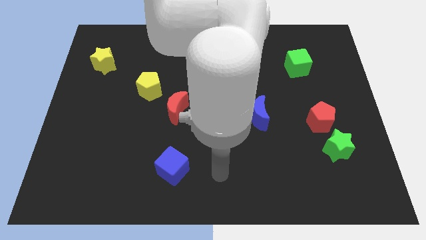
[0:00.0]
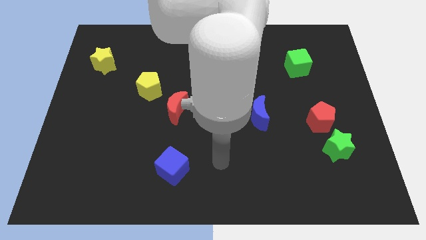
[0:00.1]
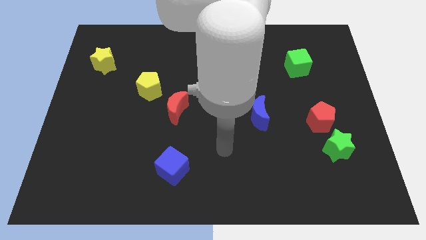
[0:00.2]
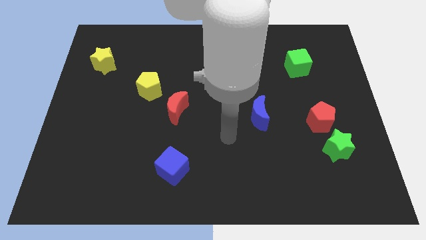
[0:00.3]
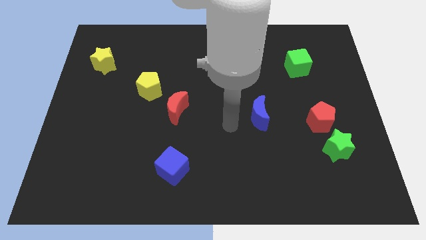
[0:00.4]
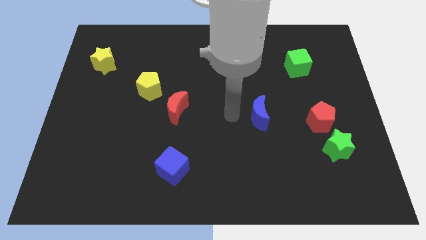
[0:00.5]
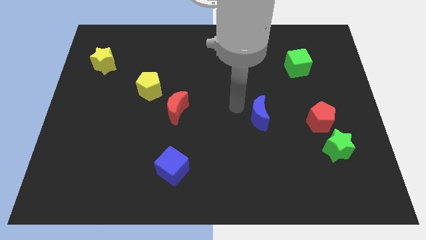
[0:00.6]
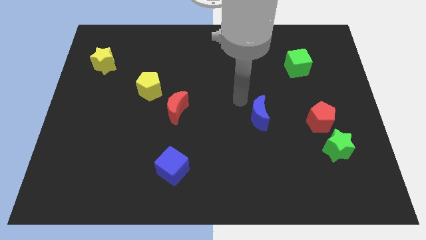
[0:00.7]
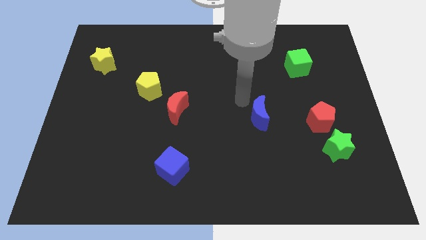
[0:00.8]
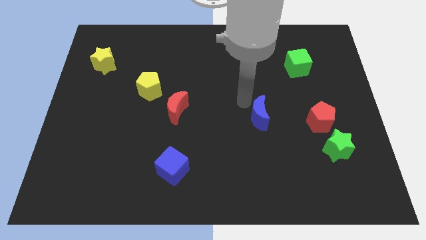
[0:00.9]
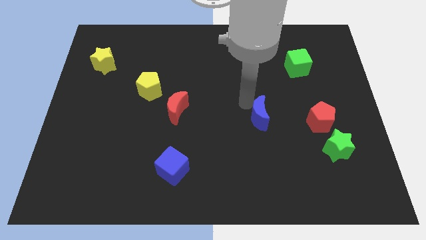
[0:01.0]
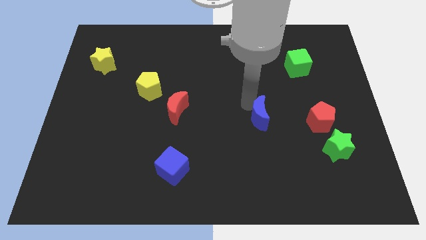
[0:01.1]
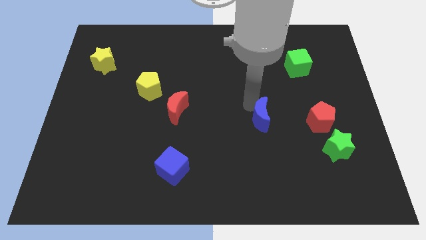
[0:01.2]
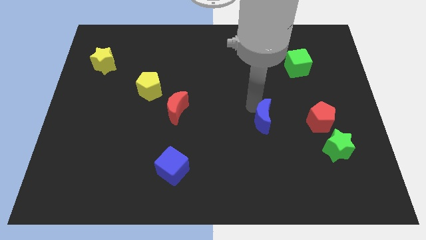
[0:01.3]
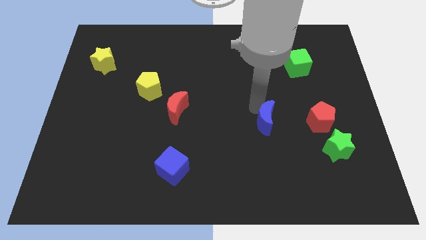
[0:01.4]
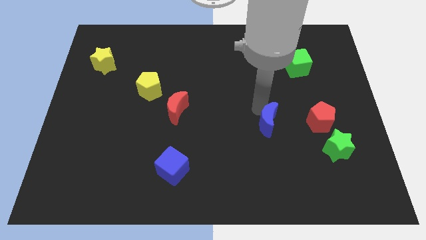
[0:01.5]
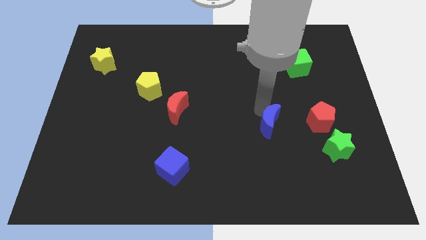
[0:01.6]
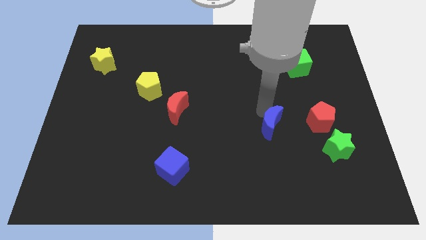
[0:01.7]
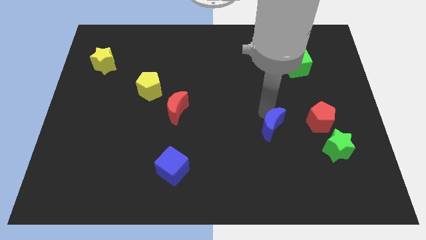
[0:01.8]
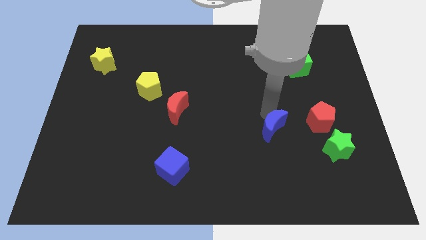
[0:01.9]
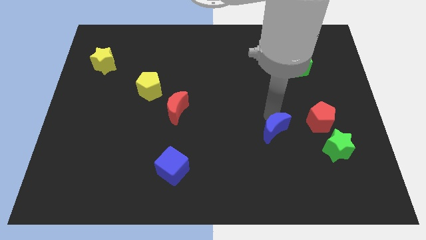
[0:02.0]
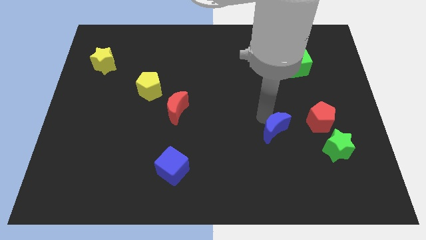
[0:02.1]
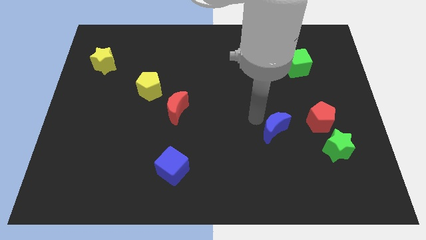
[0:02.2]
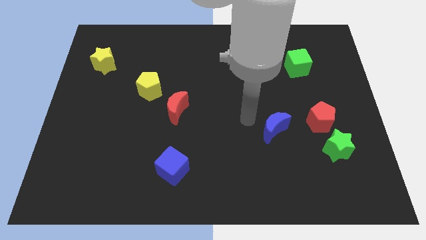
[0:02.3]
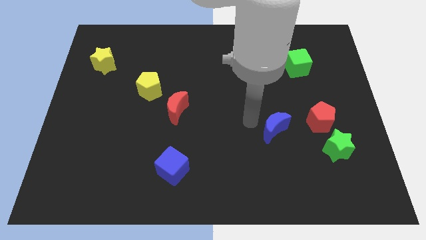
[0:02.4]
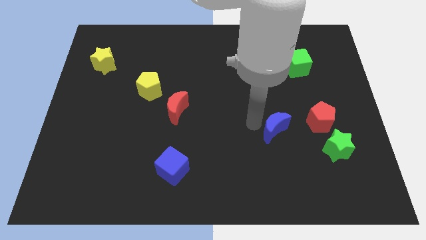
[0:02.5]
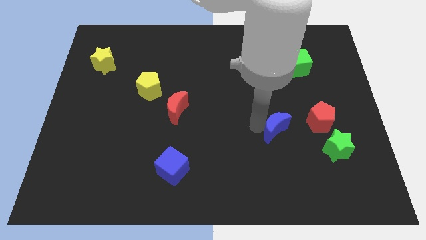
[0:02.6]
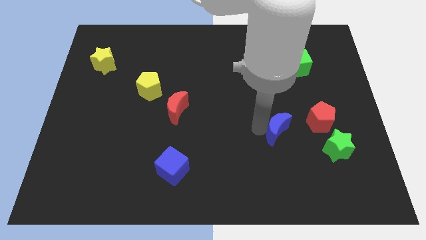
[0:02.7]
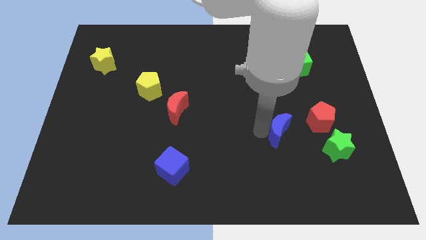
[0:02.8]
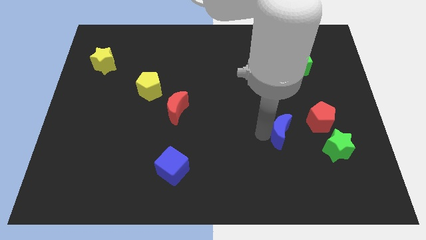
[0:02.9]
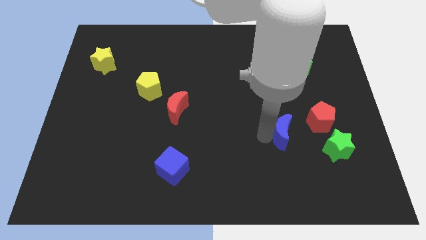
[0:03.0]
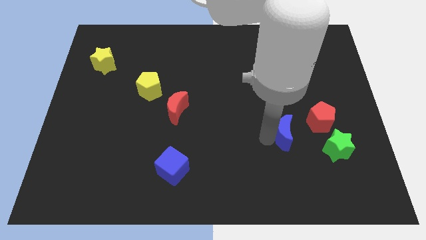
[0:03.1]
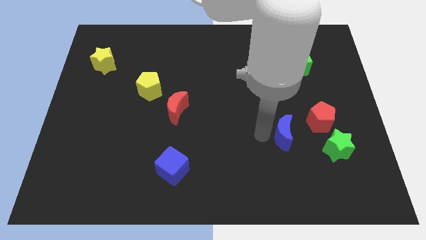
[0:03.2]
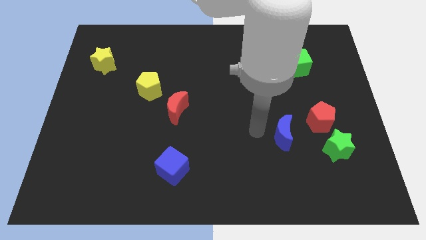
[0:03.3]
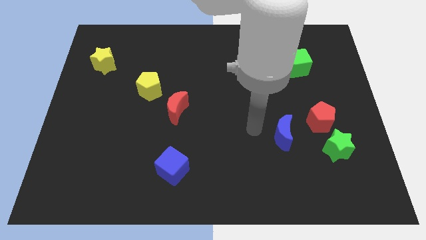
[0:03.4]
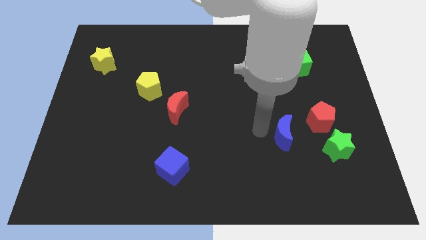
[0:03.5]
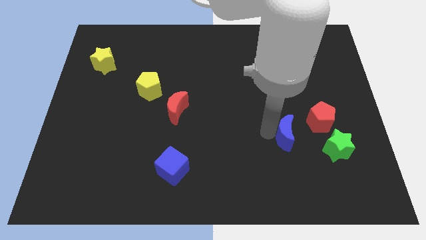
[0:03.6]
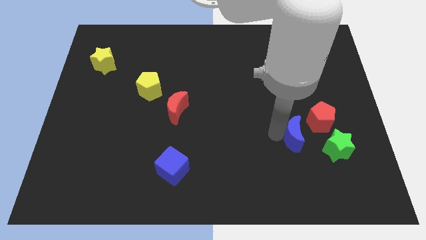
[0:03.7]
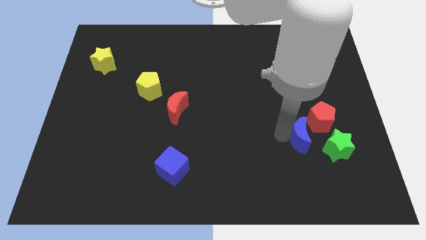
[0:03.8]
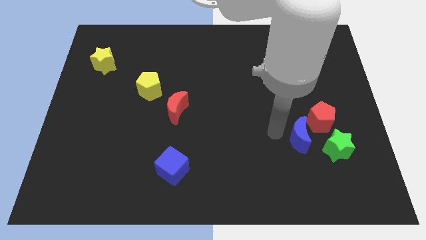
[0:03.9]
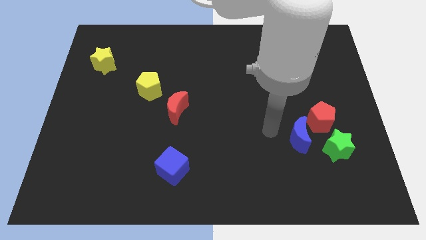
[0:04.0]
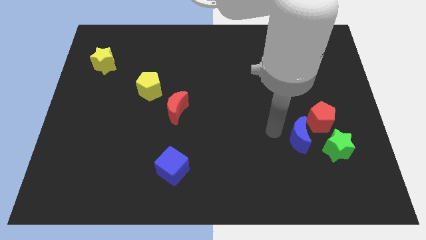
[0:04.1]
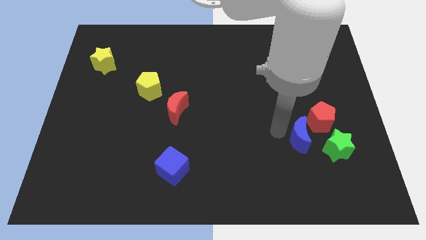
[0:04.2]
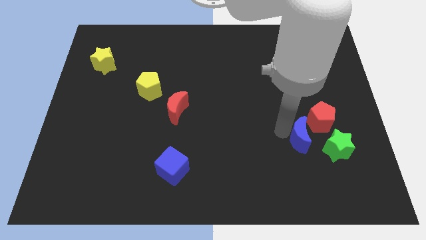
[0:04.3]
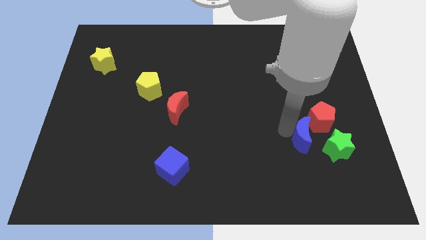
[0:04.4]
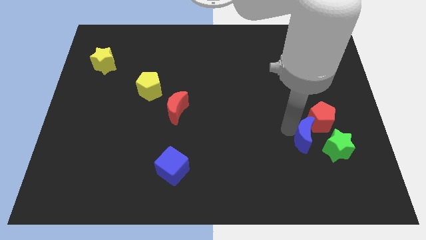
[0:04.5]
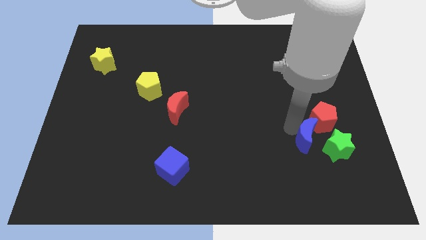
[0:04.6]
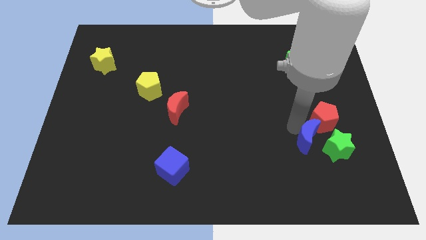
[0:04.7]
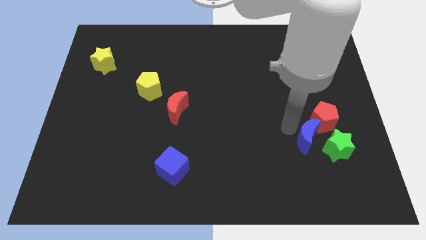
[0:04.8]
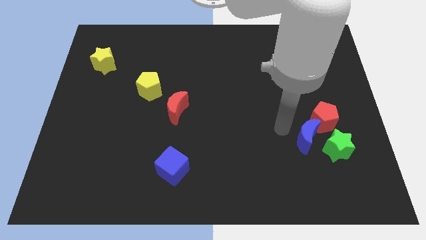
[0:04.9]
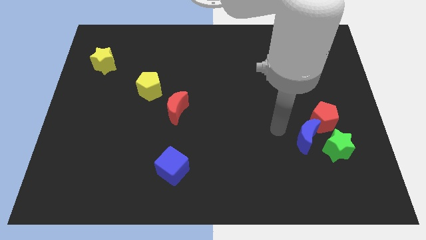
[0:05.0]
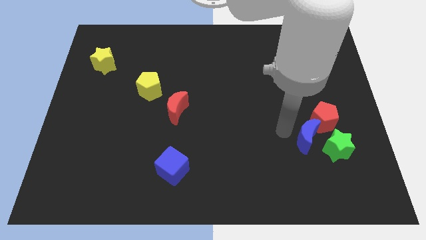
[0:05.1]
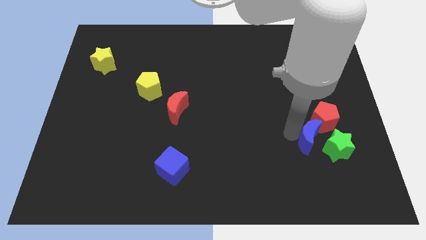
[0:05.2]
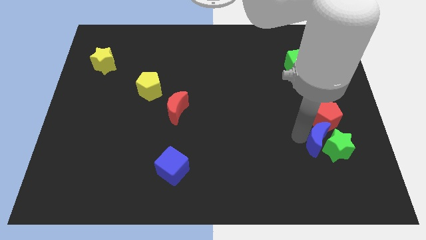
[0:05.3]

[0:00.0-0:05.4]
slide the blue moon to the green star

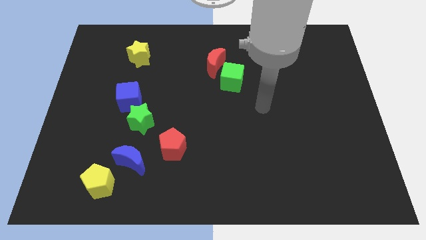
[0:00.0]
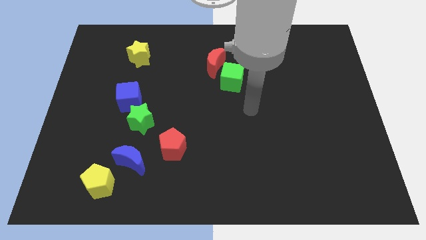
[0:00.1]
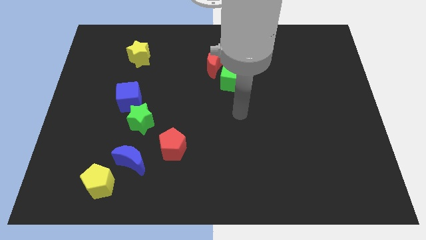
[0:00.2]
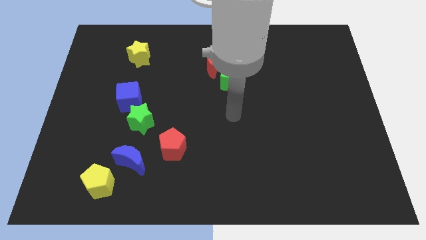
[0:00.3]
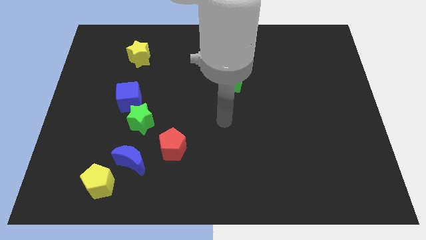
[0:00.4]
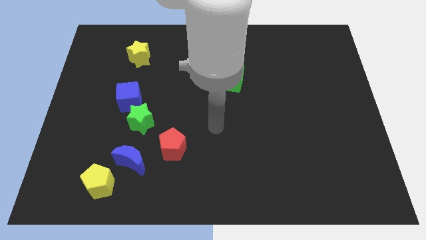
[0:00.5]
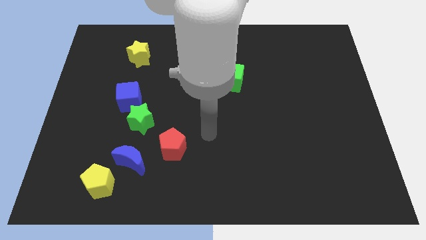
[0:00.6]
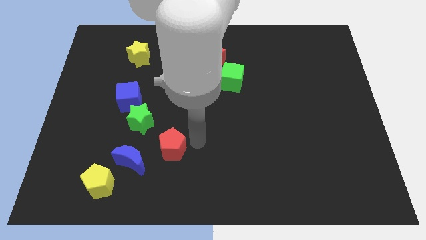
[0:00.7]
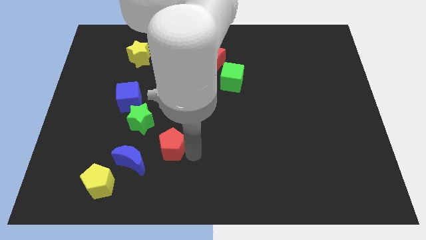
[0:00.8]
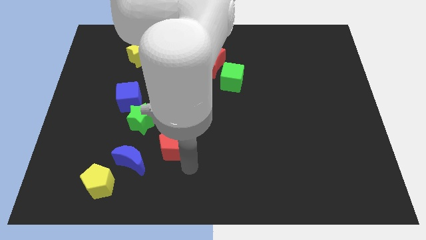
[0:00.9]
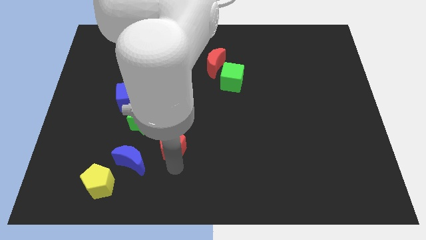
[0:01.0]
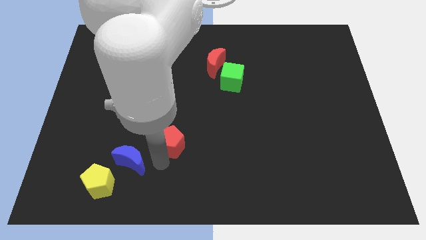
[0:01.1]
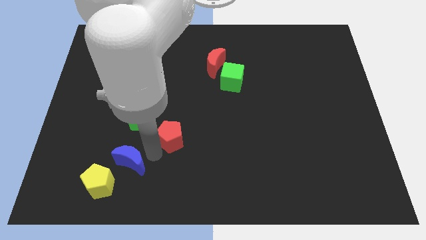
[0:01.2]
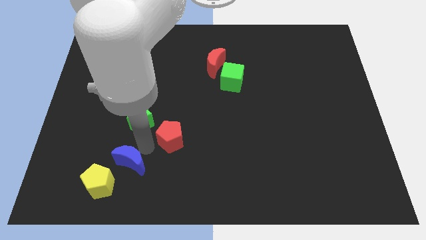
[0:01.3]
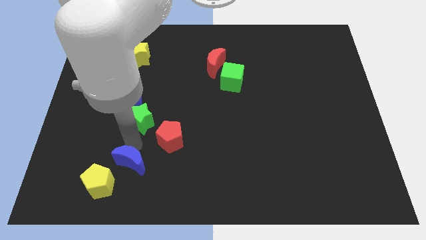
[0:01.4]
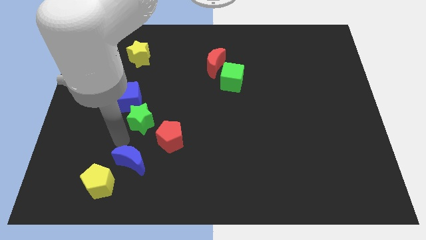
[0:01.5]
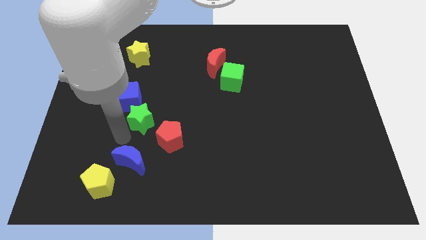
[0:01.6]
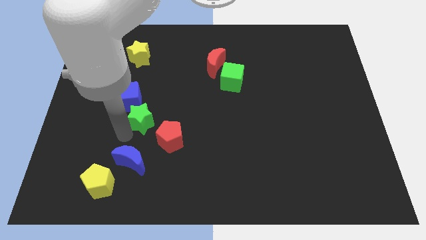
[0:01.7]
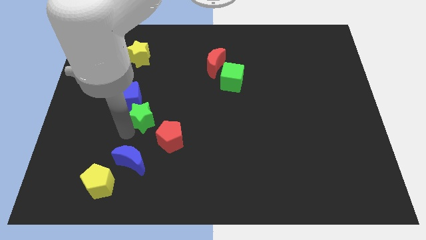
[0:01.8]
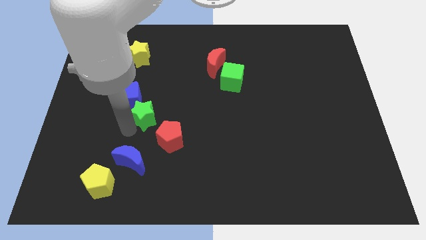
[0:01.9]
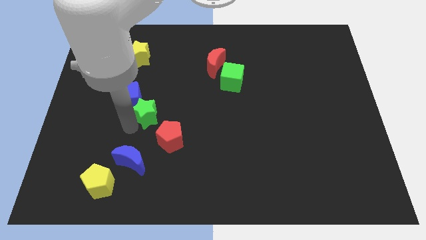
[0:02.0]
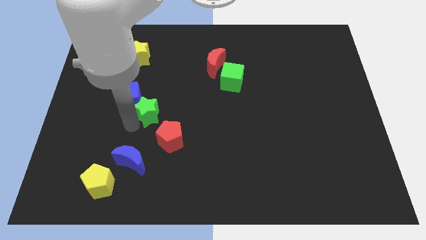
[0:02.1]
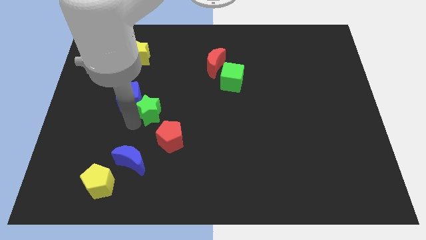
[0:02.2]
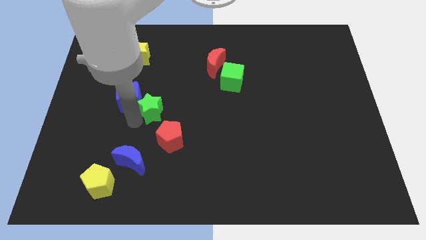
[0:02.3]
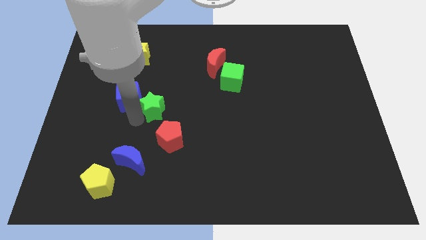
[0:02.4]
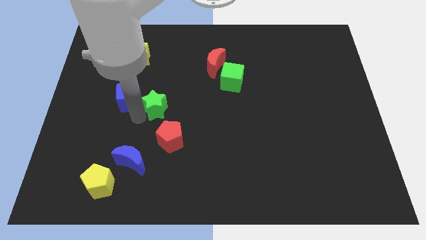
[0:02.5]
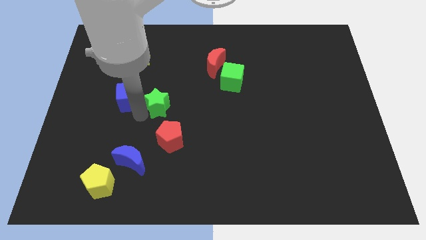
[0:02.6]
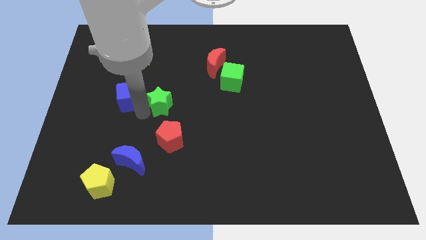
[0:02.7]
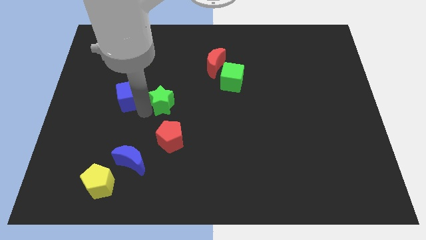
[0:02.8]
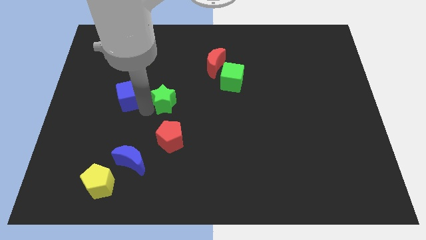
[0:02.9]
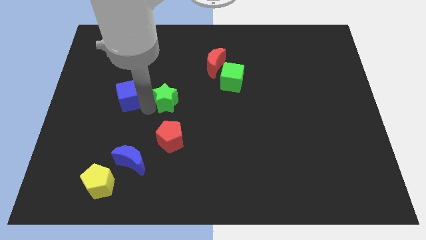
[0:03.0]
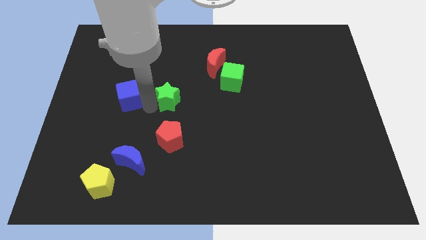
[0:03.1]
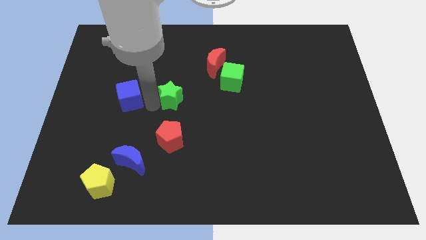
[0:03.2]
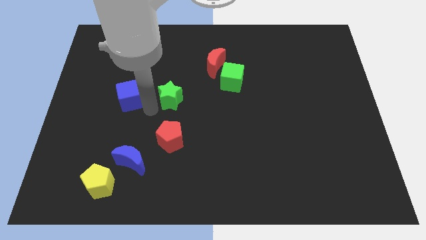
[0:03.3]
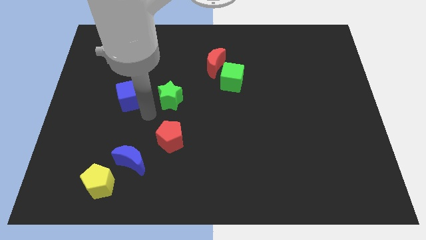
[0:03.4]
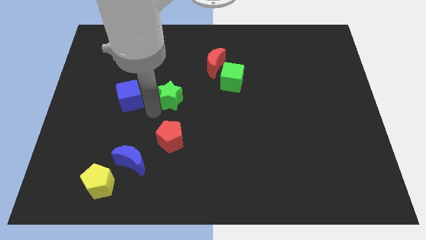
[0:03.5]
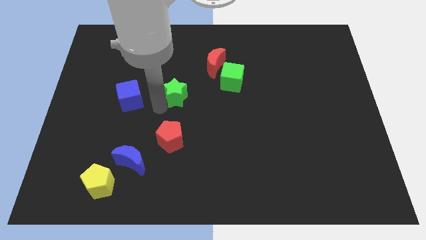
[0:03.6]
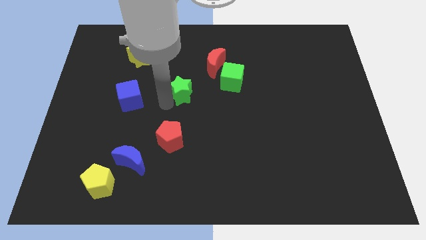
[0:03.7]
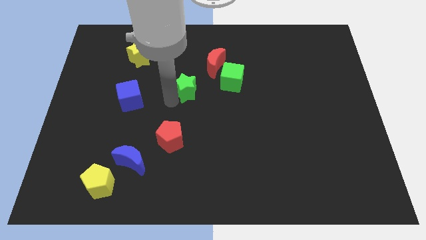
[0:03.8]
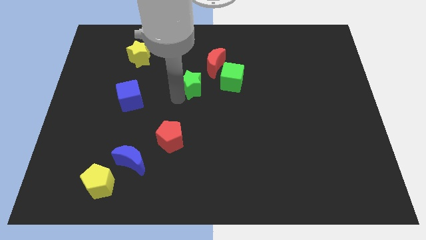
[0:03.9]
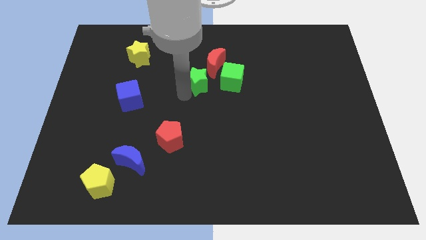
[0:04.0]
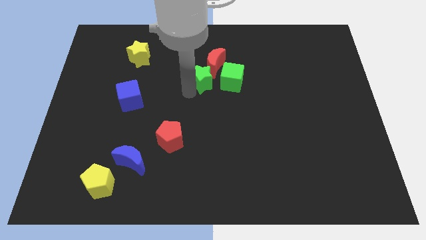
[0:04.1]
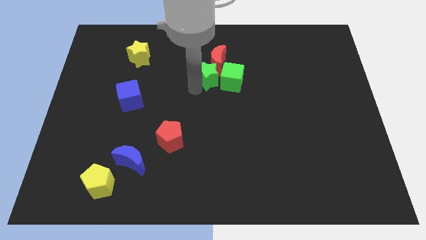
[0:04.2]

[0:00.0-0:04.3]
slide the green star close to the red moon
